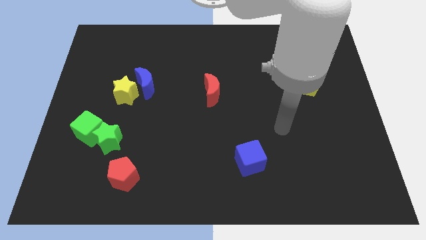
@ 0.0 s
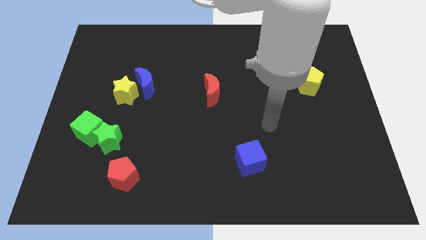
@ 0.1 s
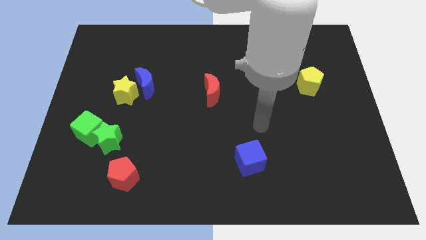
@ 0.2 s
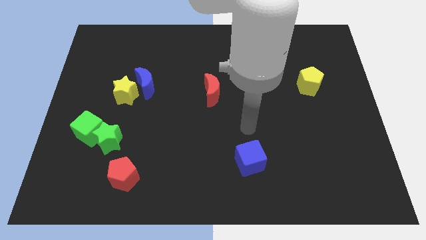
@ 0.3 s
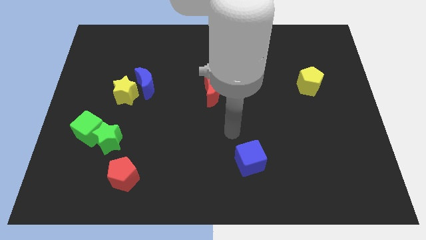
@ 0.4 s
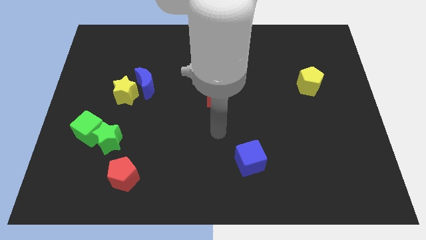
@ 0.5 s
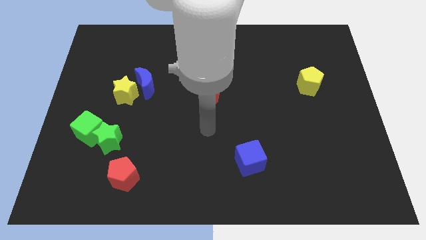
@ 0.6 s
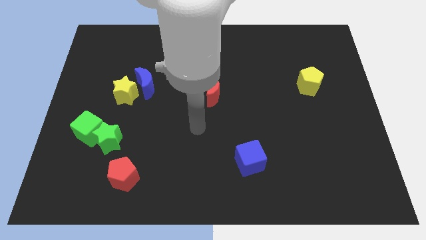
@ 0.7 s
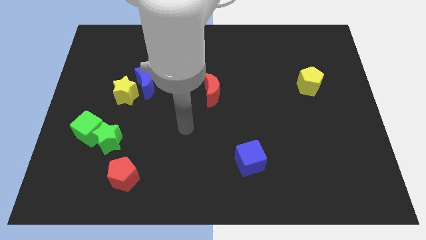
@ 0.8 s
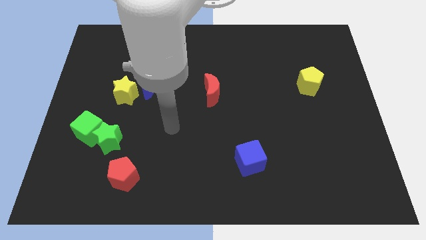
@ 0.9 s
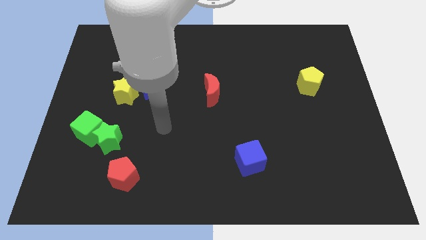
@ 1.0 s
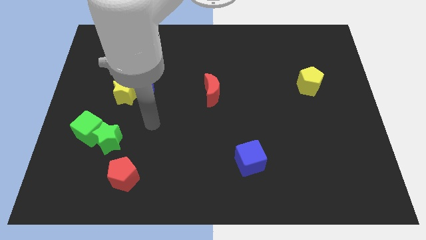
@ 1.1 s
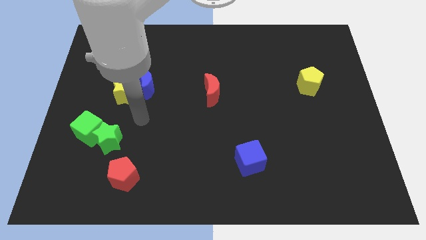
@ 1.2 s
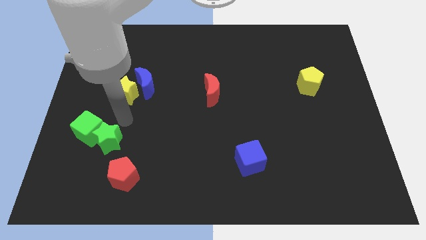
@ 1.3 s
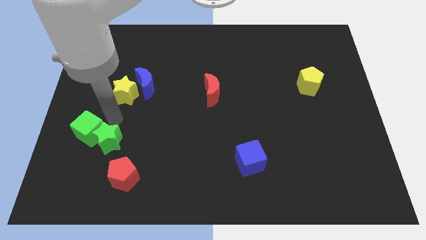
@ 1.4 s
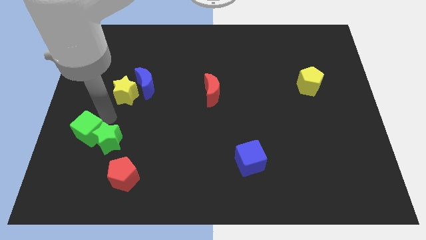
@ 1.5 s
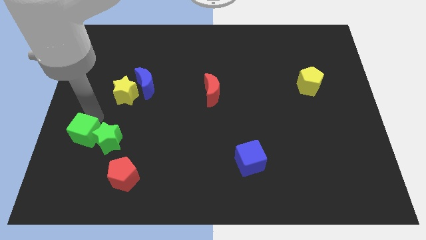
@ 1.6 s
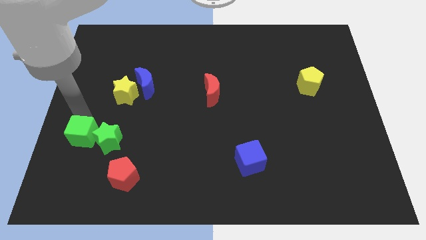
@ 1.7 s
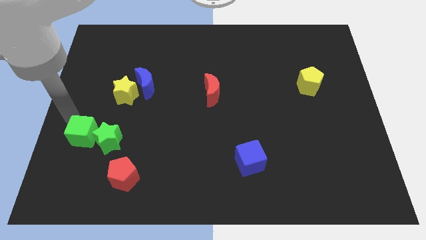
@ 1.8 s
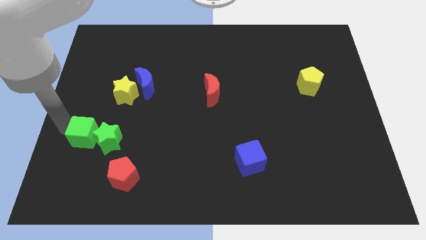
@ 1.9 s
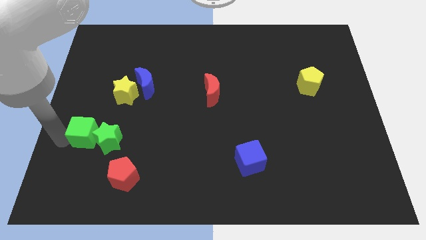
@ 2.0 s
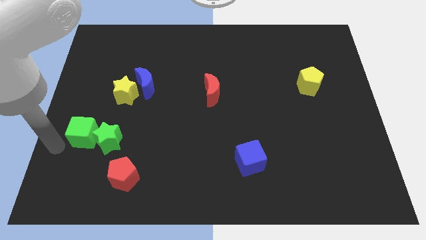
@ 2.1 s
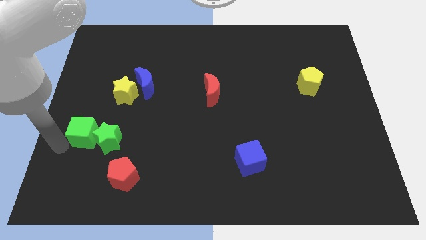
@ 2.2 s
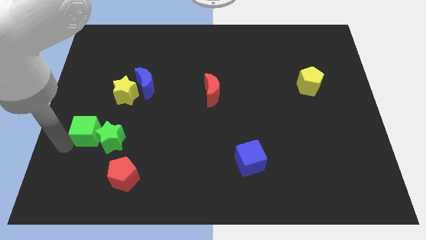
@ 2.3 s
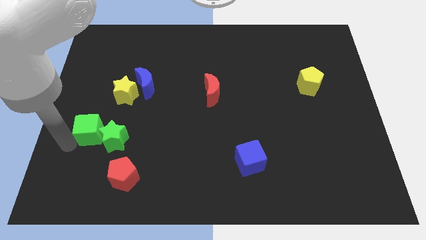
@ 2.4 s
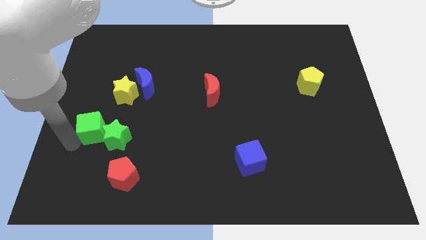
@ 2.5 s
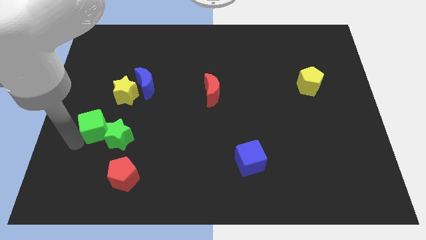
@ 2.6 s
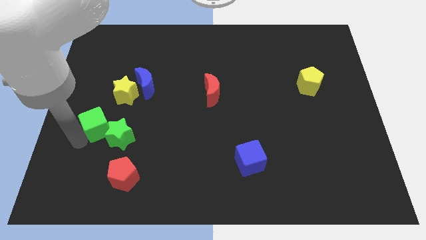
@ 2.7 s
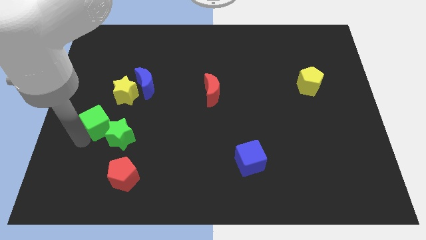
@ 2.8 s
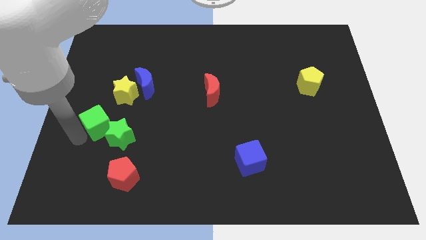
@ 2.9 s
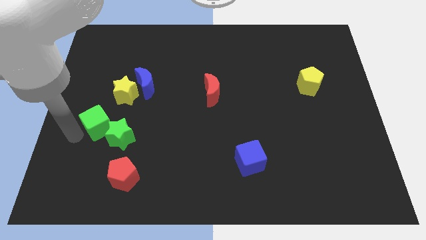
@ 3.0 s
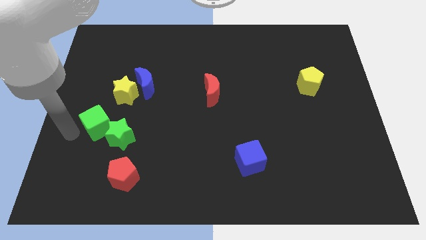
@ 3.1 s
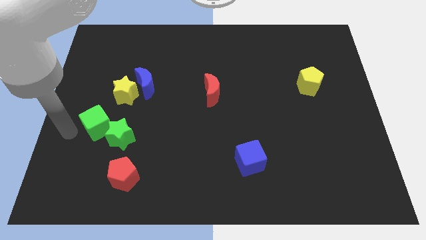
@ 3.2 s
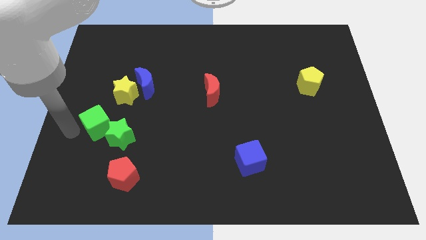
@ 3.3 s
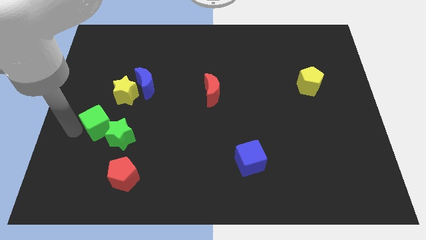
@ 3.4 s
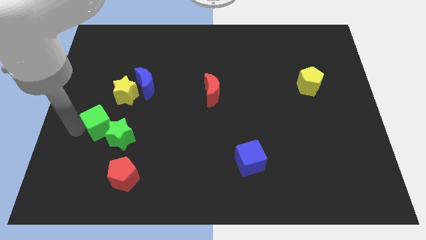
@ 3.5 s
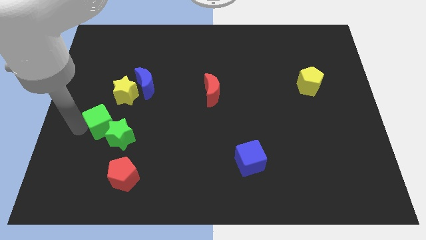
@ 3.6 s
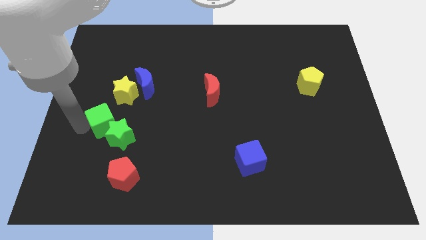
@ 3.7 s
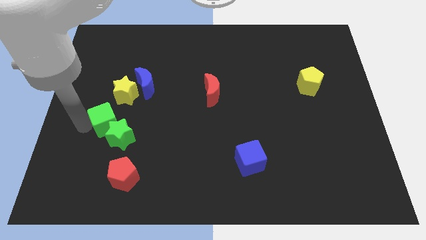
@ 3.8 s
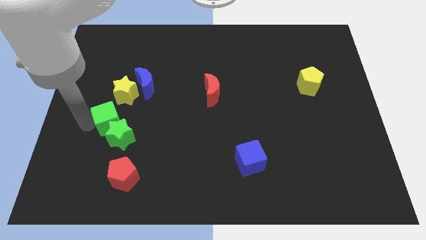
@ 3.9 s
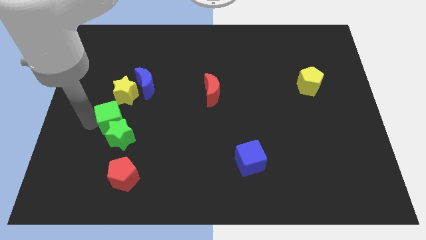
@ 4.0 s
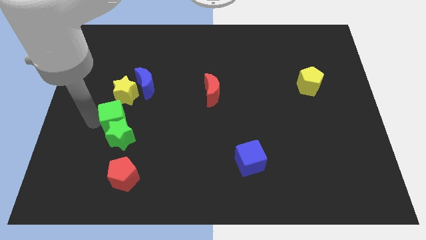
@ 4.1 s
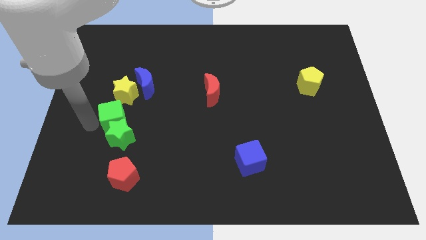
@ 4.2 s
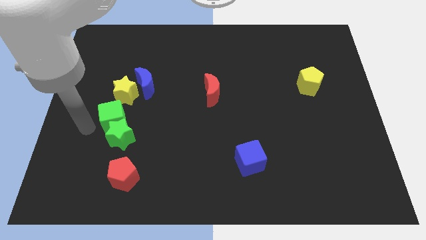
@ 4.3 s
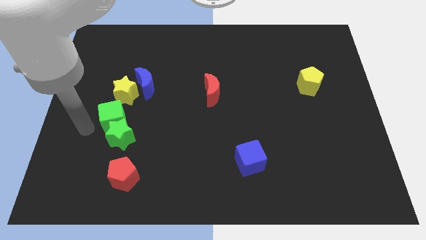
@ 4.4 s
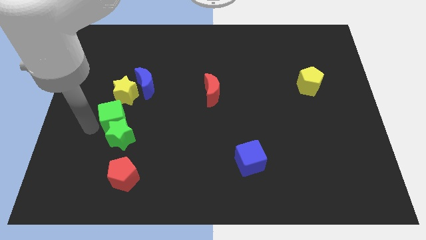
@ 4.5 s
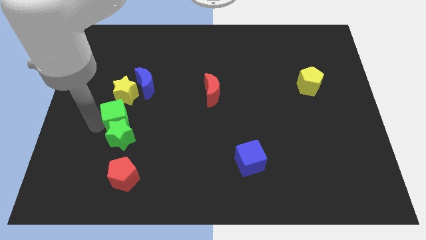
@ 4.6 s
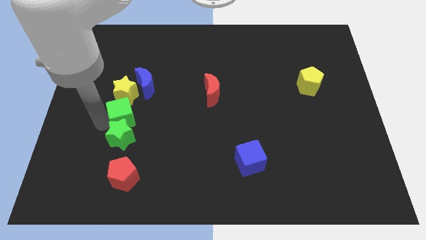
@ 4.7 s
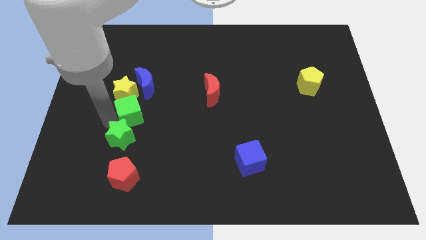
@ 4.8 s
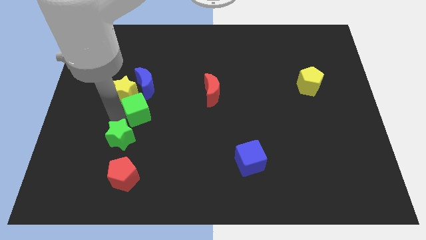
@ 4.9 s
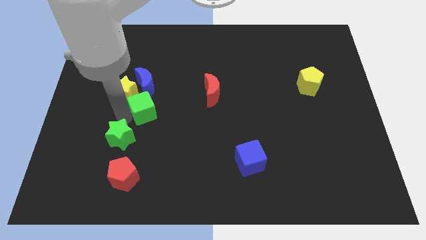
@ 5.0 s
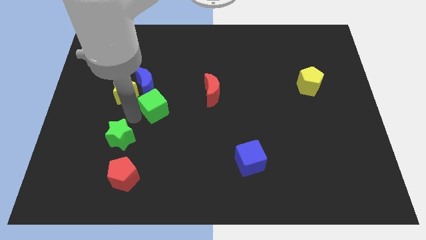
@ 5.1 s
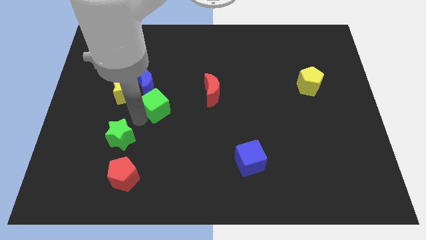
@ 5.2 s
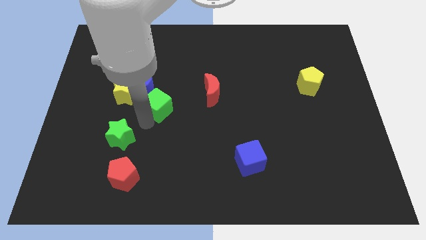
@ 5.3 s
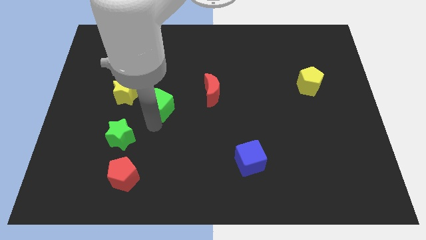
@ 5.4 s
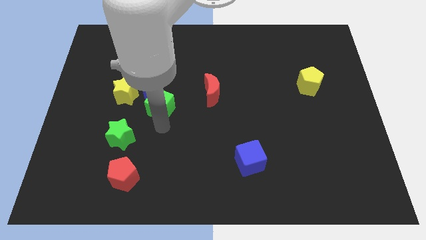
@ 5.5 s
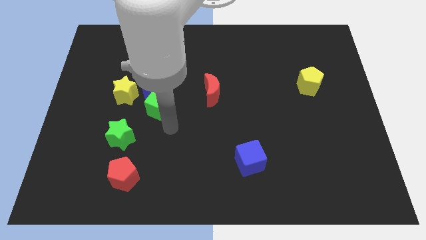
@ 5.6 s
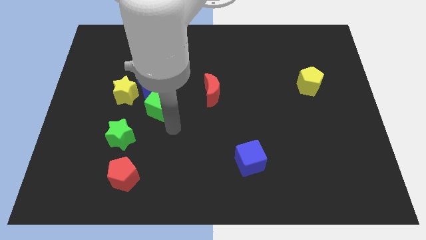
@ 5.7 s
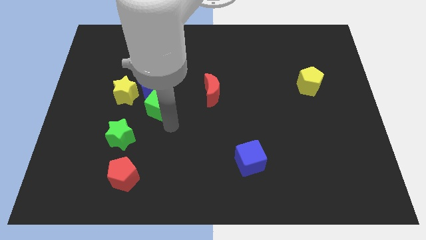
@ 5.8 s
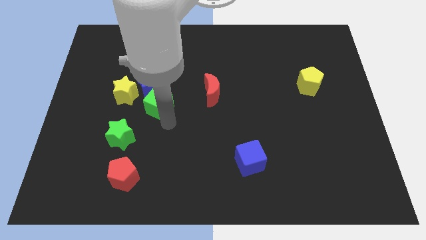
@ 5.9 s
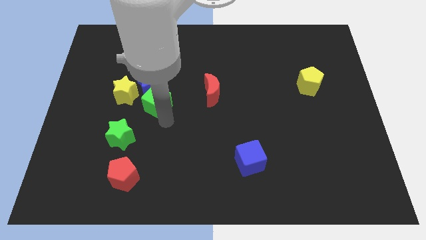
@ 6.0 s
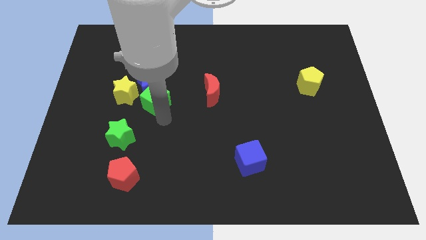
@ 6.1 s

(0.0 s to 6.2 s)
slide the green cube close to the blue moon

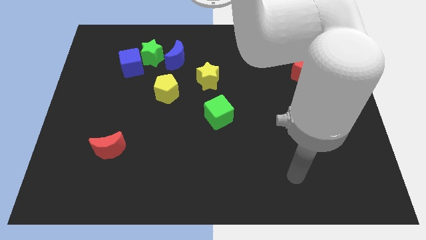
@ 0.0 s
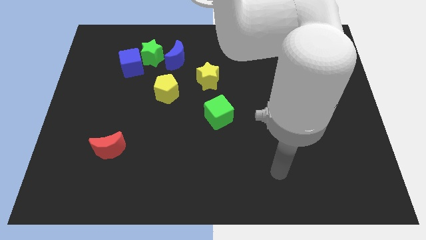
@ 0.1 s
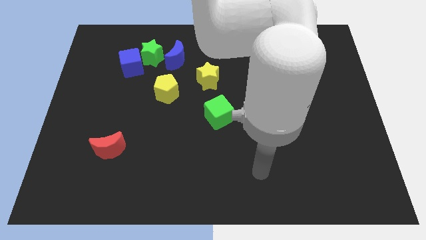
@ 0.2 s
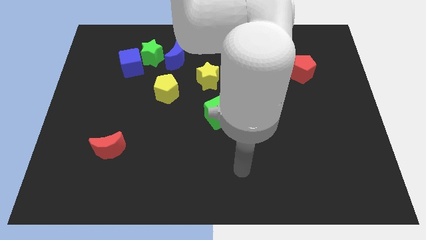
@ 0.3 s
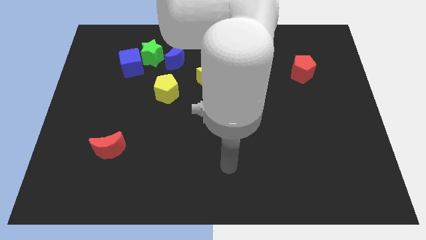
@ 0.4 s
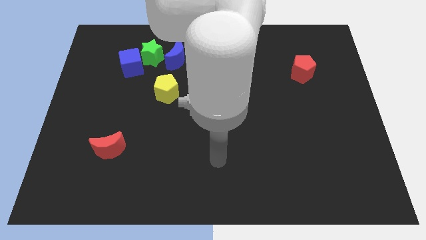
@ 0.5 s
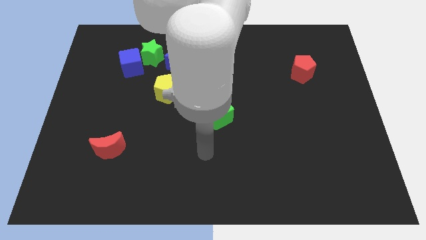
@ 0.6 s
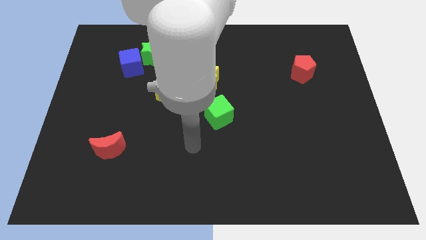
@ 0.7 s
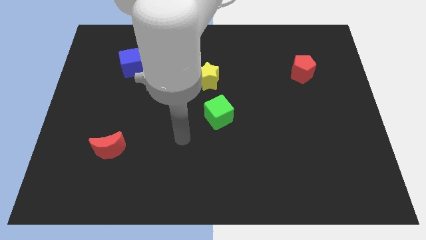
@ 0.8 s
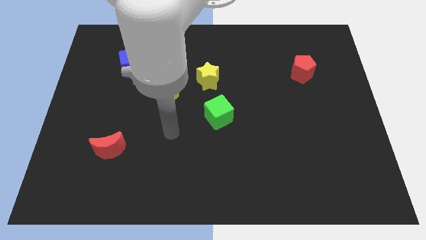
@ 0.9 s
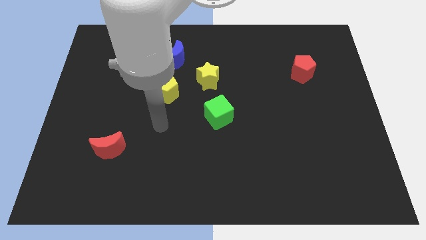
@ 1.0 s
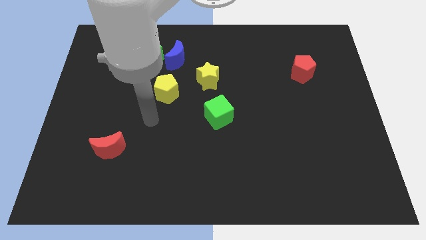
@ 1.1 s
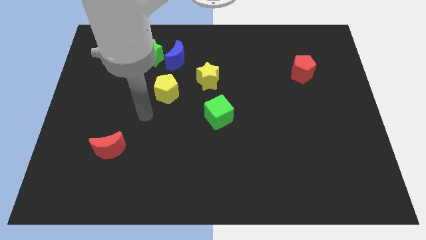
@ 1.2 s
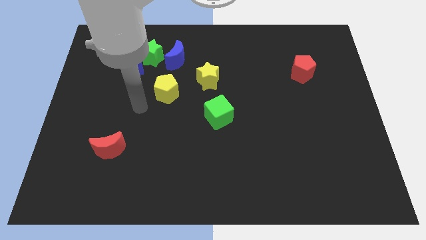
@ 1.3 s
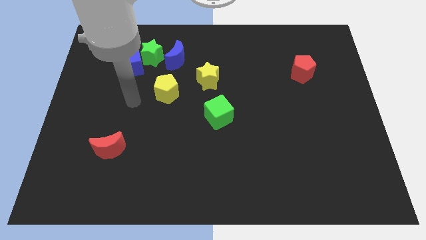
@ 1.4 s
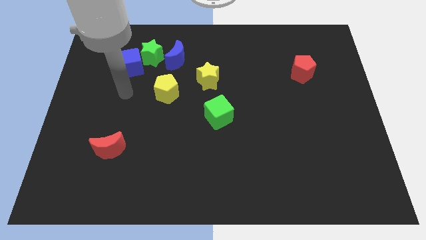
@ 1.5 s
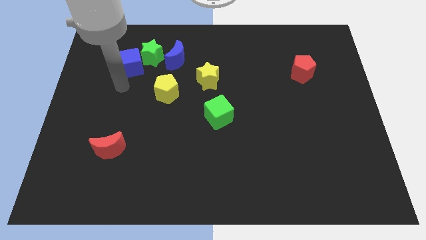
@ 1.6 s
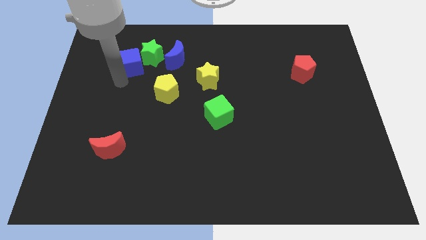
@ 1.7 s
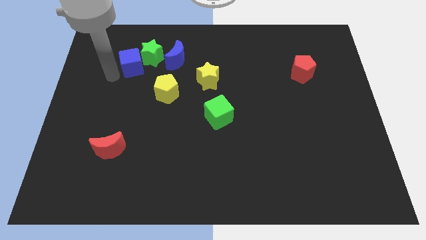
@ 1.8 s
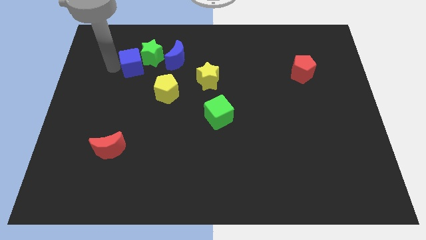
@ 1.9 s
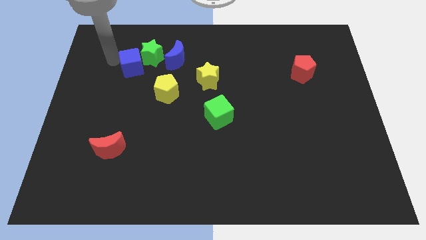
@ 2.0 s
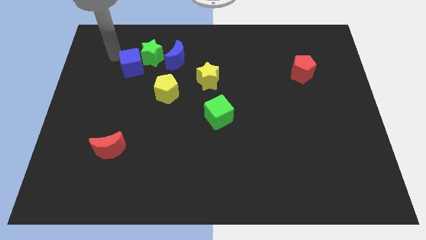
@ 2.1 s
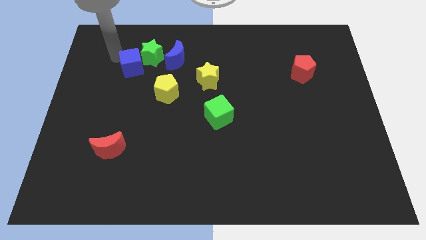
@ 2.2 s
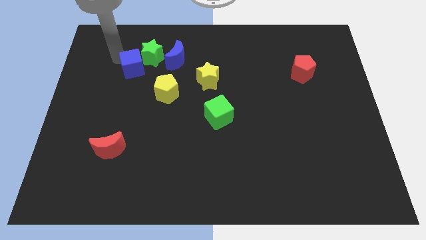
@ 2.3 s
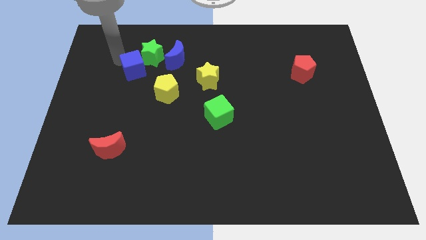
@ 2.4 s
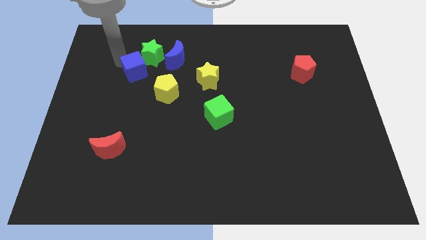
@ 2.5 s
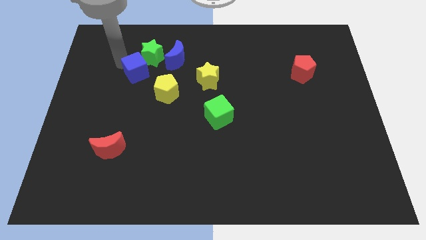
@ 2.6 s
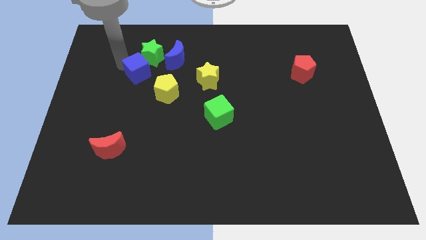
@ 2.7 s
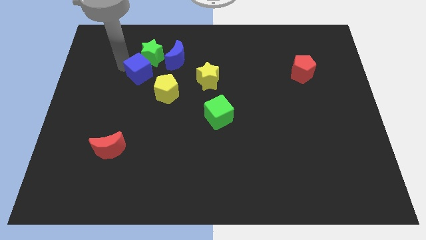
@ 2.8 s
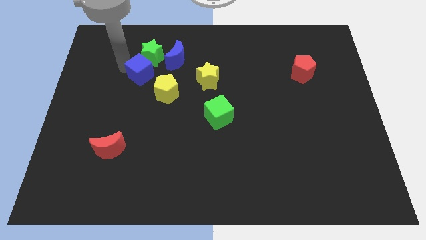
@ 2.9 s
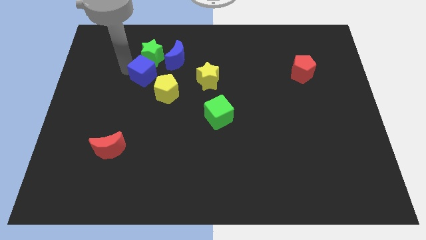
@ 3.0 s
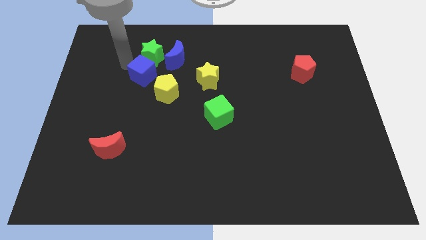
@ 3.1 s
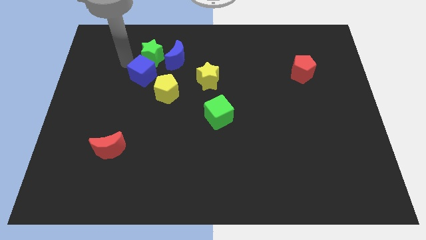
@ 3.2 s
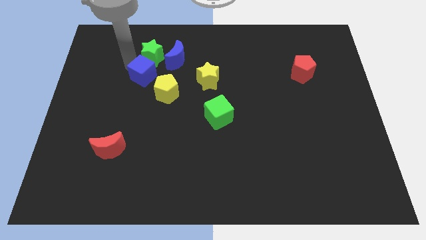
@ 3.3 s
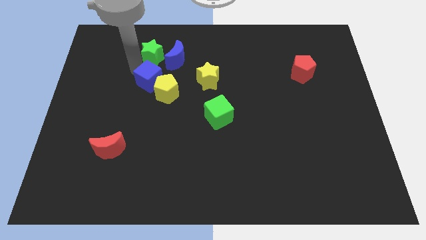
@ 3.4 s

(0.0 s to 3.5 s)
push the blue cube close to the yellow pentagon
